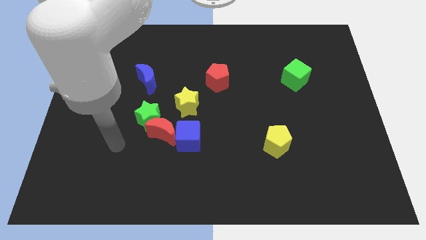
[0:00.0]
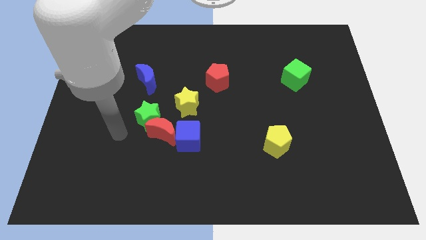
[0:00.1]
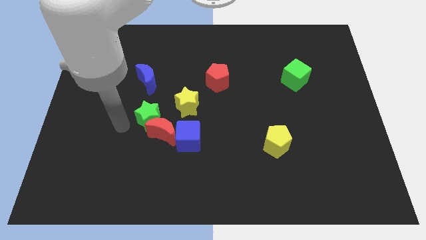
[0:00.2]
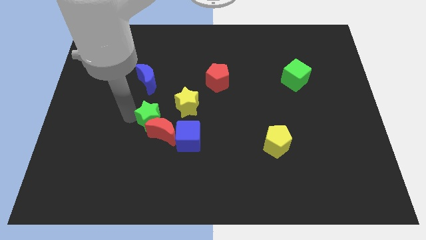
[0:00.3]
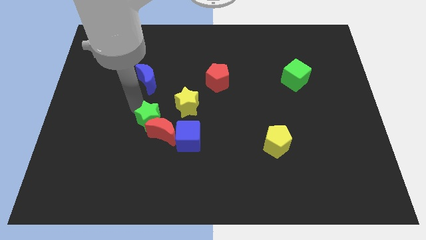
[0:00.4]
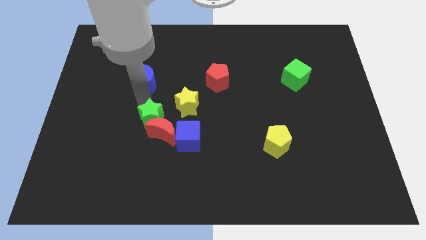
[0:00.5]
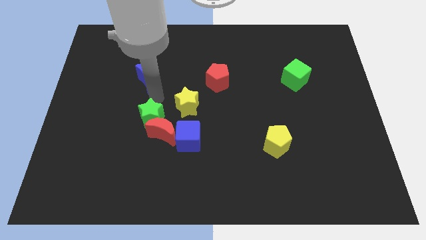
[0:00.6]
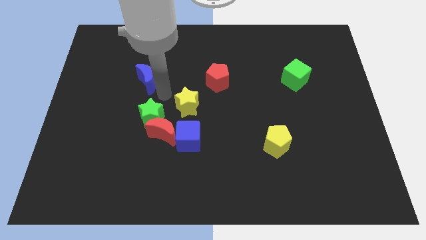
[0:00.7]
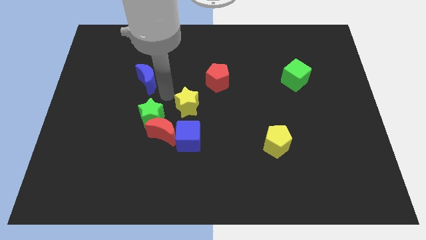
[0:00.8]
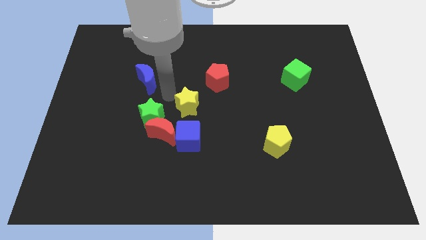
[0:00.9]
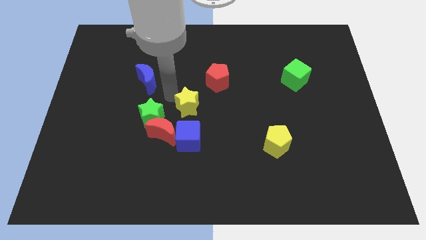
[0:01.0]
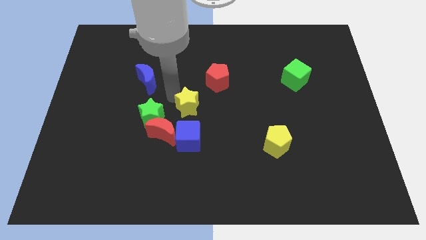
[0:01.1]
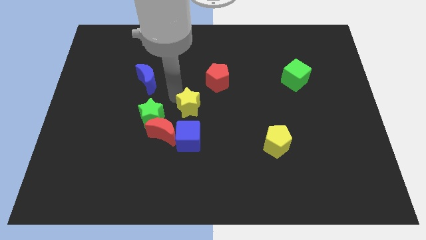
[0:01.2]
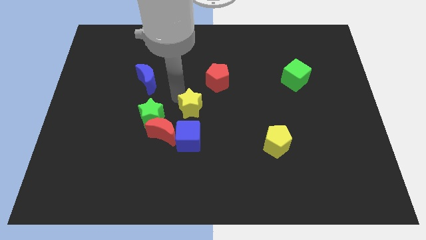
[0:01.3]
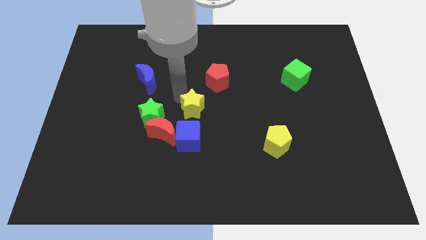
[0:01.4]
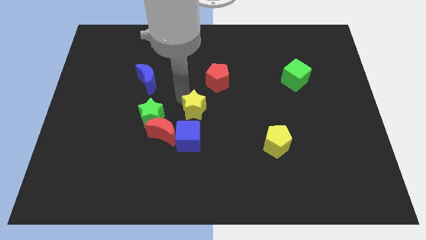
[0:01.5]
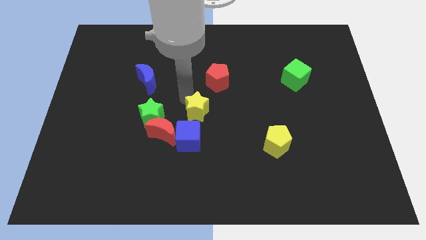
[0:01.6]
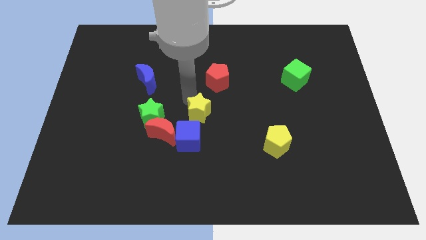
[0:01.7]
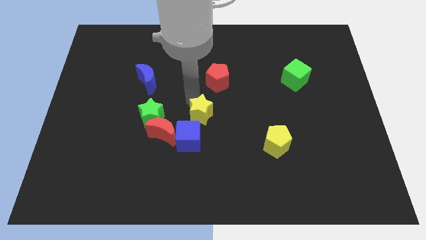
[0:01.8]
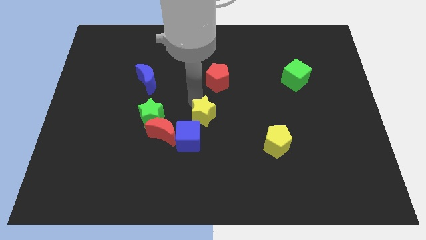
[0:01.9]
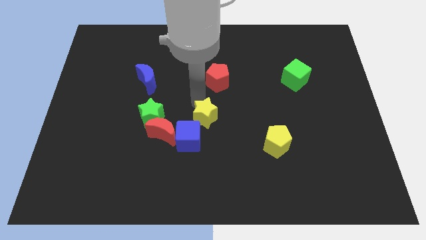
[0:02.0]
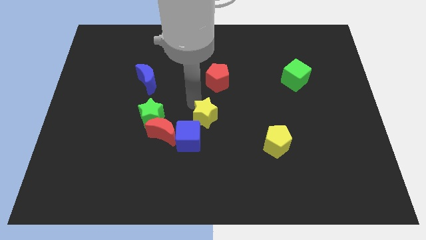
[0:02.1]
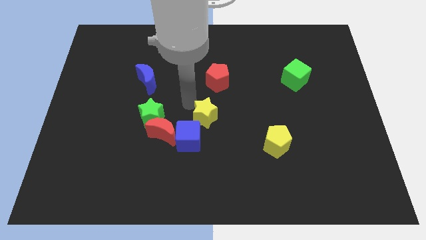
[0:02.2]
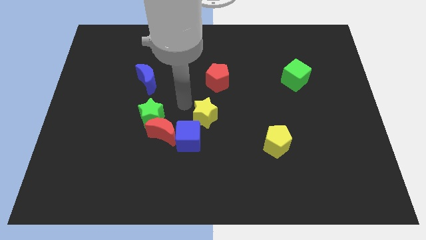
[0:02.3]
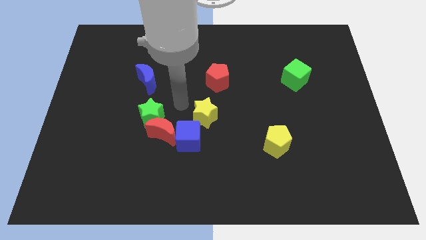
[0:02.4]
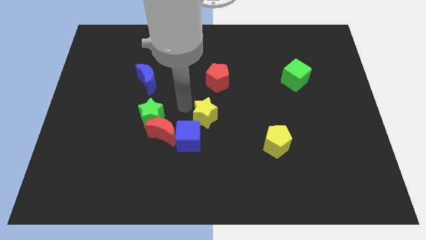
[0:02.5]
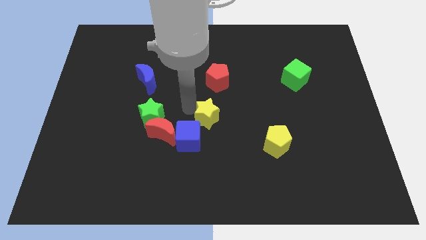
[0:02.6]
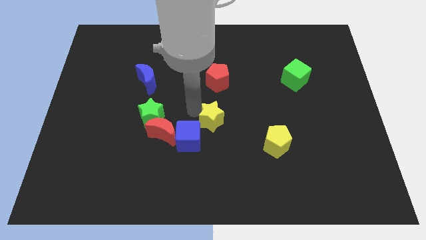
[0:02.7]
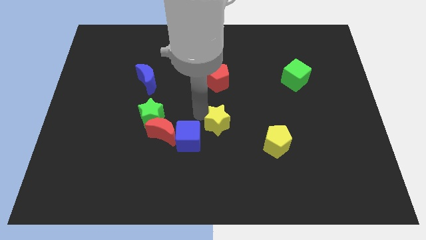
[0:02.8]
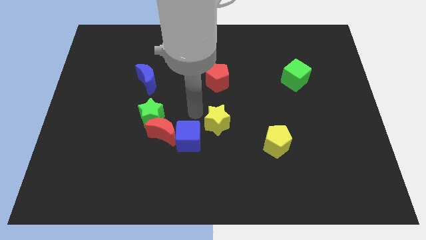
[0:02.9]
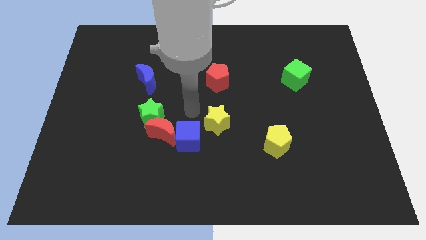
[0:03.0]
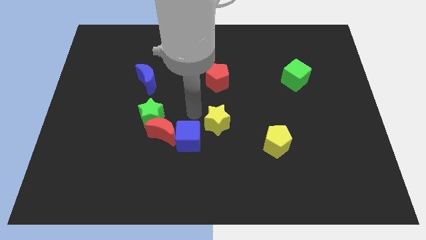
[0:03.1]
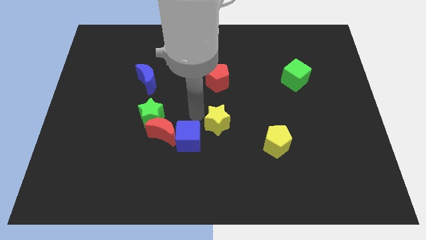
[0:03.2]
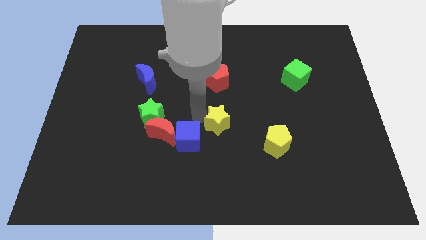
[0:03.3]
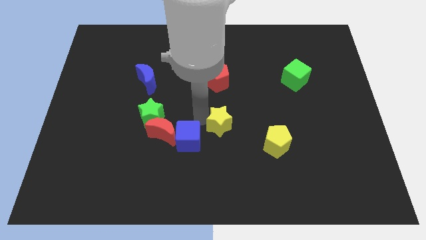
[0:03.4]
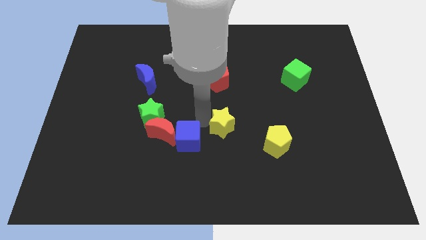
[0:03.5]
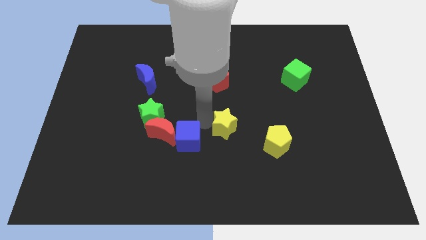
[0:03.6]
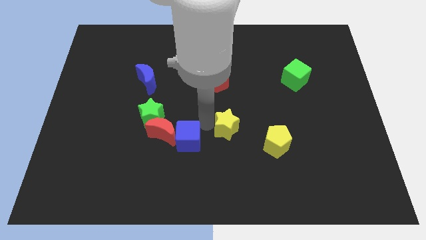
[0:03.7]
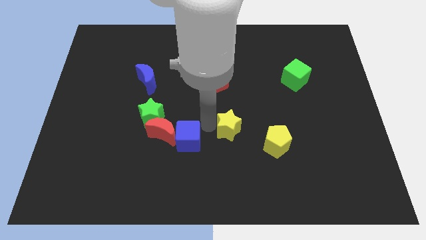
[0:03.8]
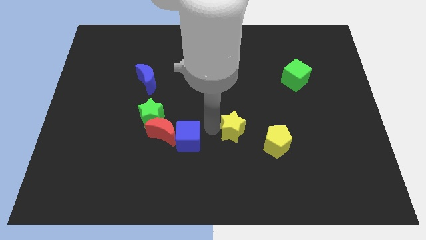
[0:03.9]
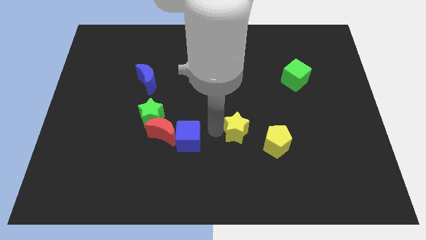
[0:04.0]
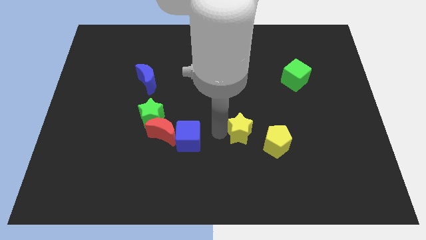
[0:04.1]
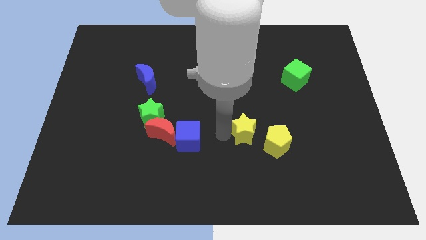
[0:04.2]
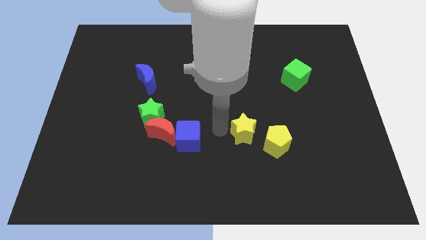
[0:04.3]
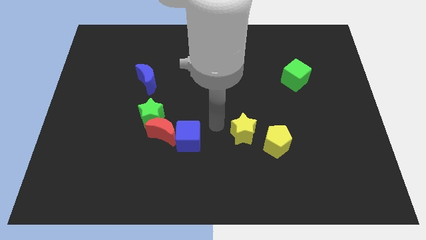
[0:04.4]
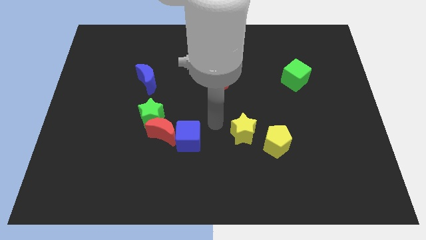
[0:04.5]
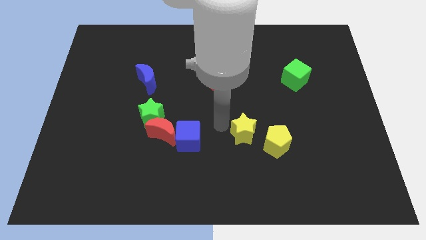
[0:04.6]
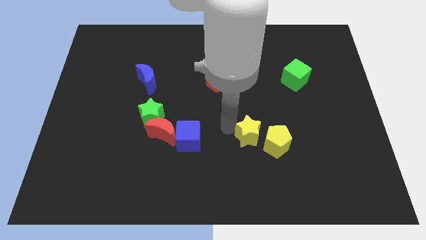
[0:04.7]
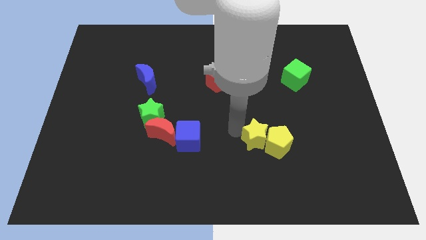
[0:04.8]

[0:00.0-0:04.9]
push the yellow star next to the yellow pentagon

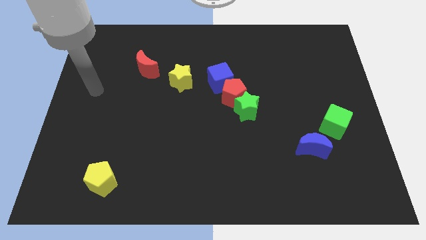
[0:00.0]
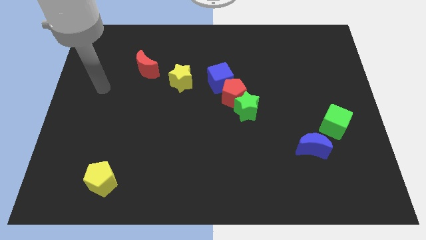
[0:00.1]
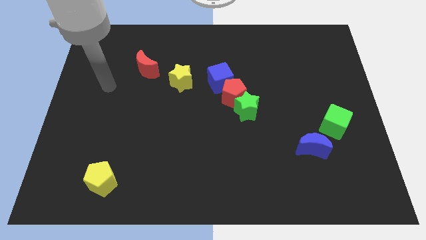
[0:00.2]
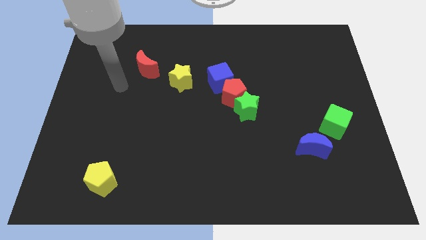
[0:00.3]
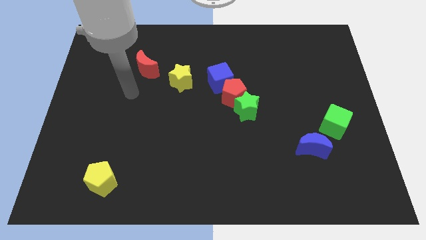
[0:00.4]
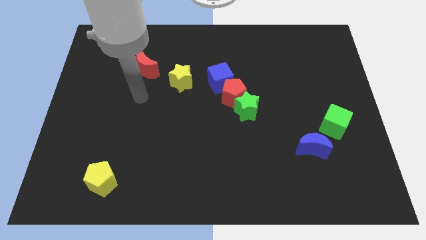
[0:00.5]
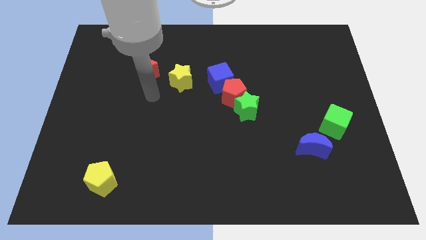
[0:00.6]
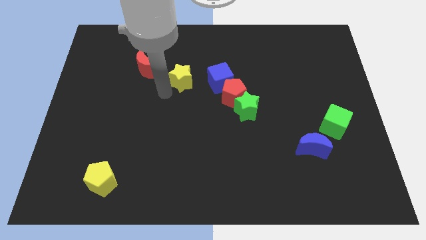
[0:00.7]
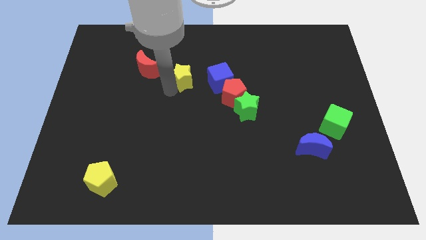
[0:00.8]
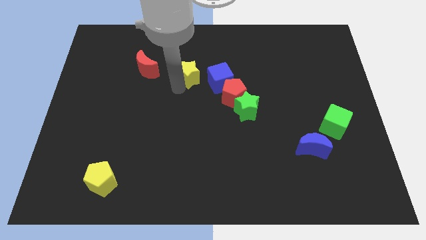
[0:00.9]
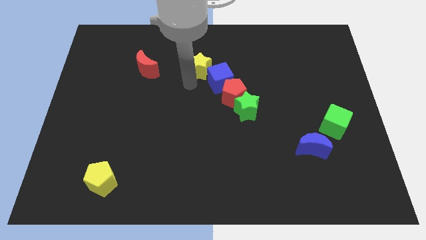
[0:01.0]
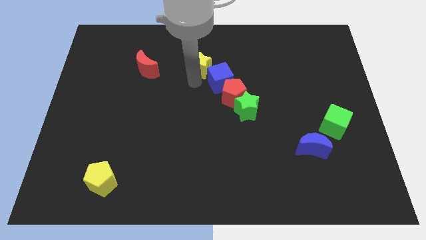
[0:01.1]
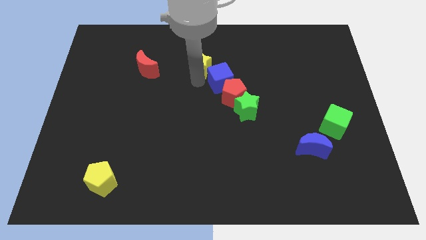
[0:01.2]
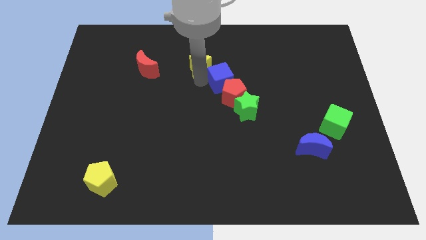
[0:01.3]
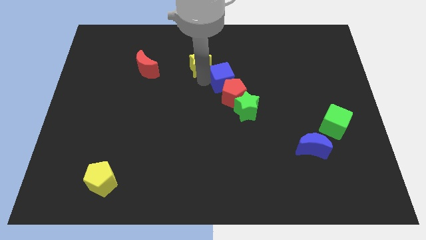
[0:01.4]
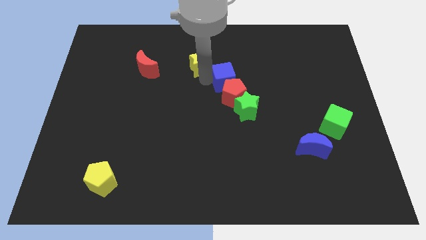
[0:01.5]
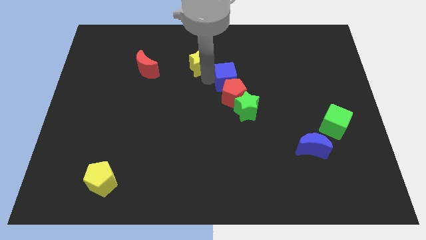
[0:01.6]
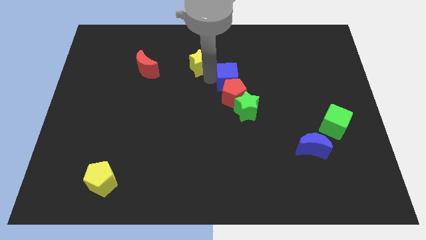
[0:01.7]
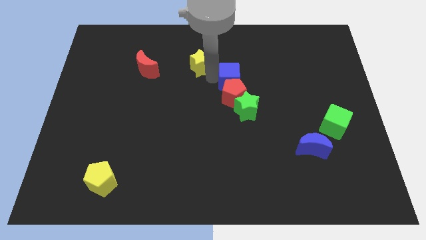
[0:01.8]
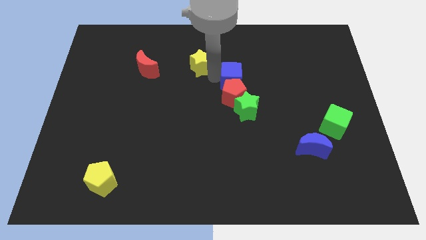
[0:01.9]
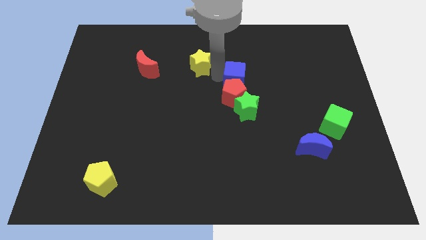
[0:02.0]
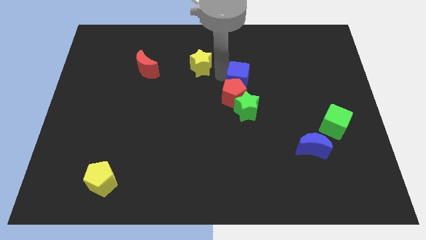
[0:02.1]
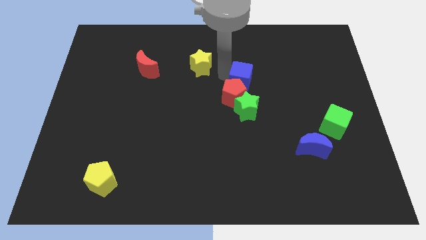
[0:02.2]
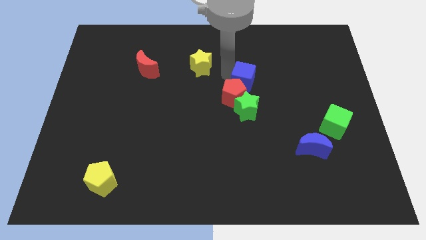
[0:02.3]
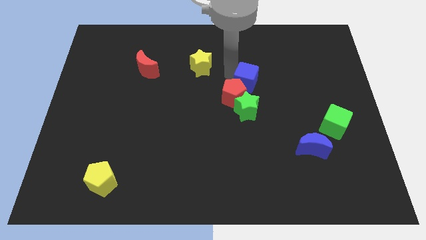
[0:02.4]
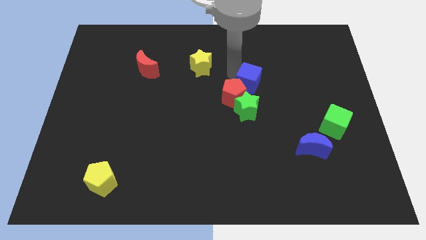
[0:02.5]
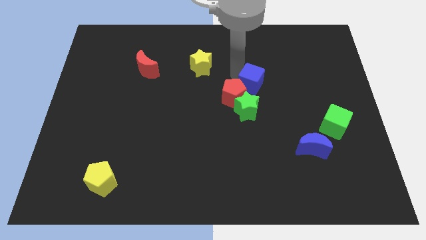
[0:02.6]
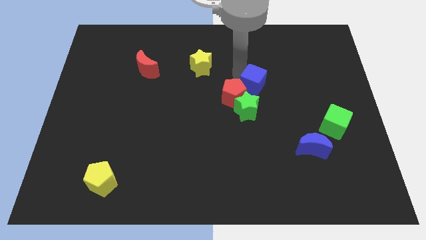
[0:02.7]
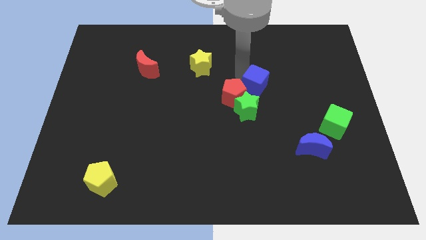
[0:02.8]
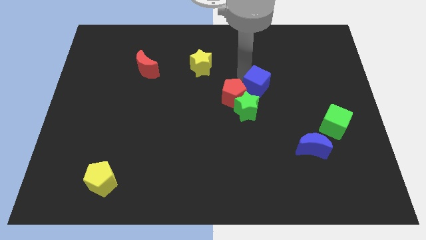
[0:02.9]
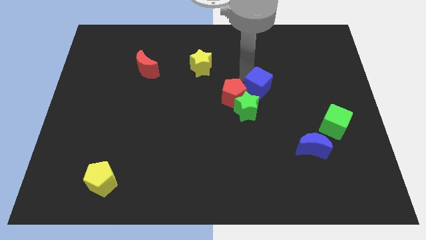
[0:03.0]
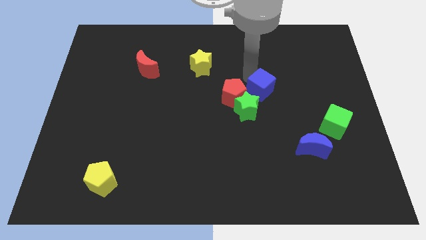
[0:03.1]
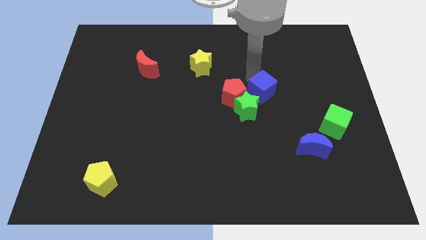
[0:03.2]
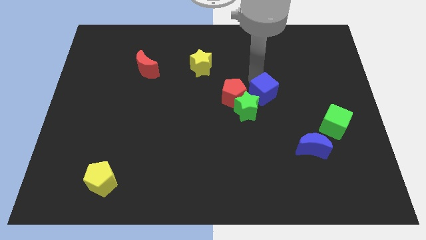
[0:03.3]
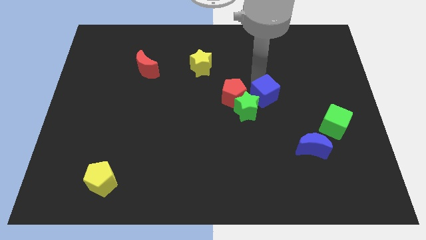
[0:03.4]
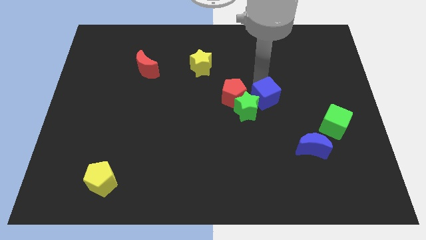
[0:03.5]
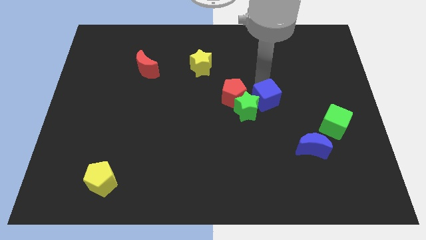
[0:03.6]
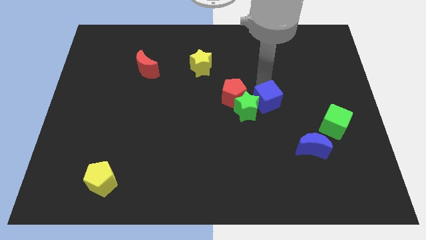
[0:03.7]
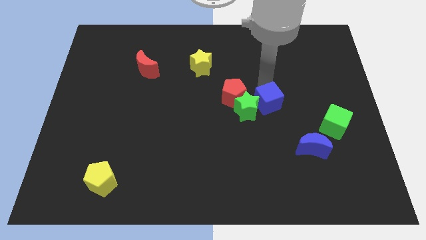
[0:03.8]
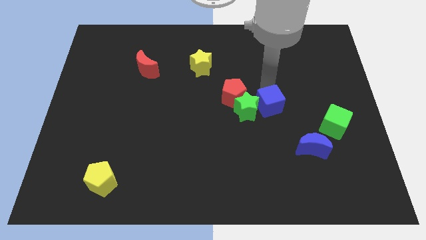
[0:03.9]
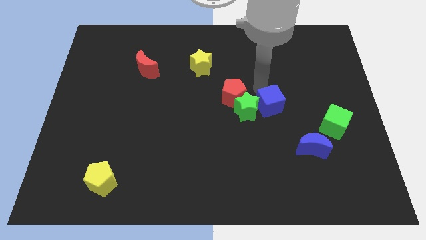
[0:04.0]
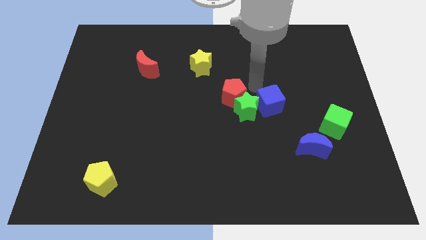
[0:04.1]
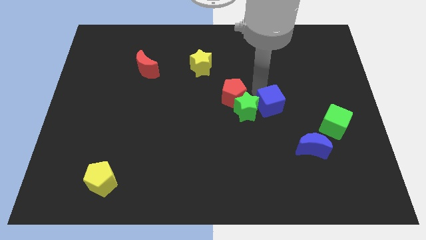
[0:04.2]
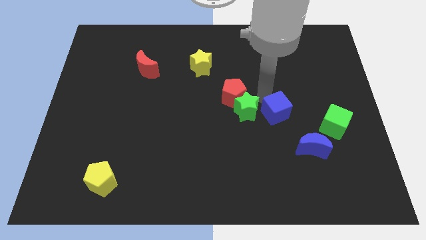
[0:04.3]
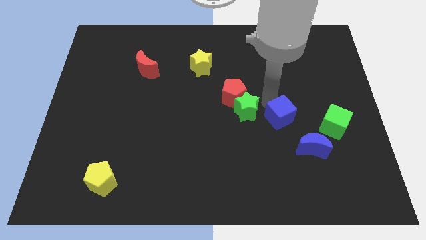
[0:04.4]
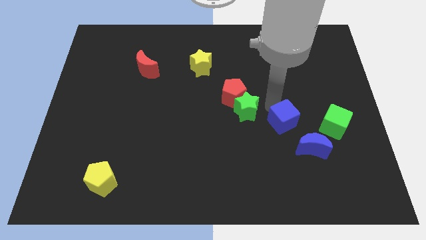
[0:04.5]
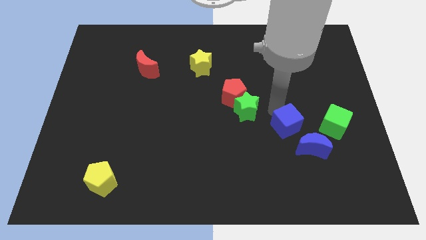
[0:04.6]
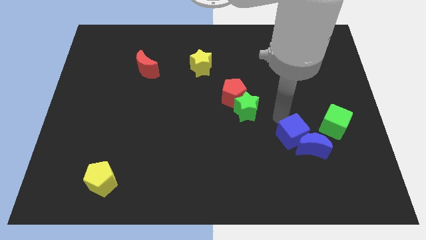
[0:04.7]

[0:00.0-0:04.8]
push the blue cube to the blue moon
